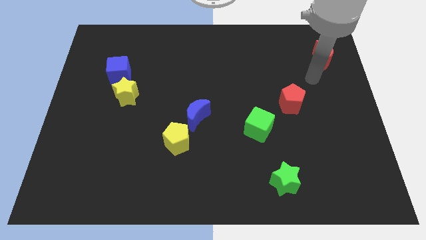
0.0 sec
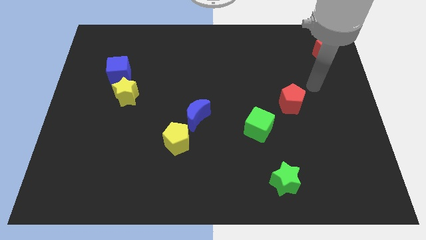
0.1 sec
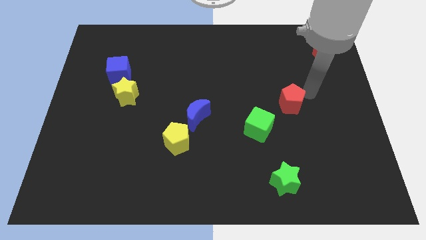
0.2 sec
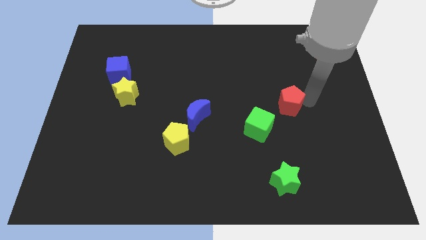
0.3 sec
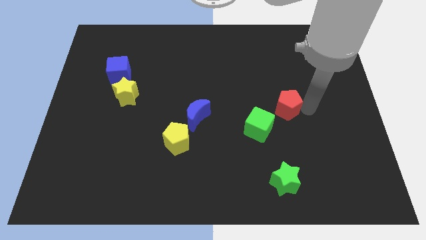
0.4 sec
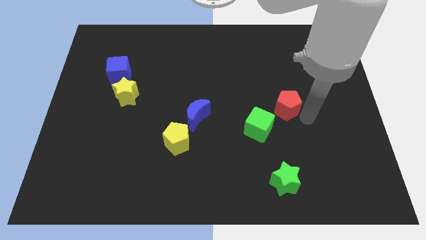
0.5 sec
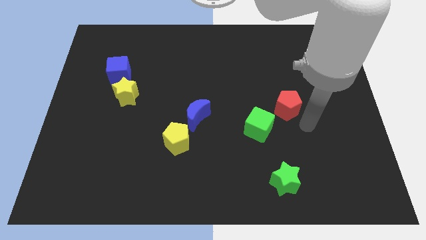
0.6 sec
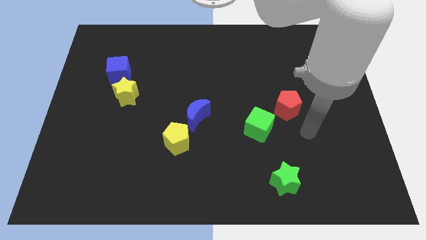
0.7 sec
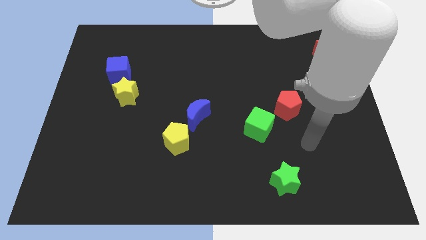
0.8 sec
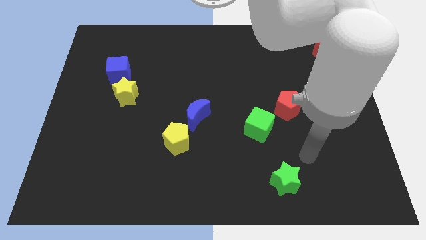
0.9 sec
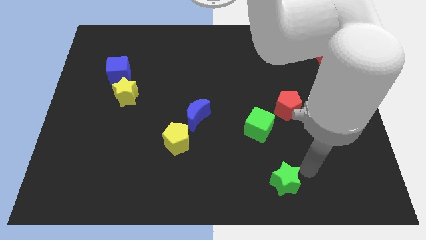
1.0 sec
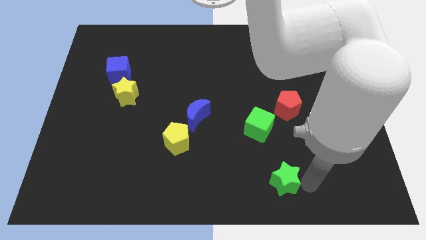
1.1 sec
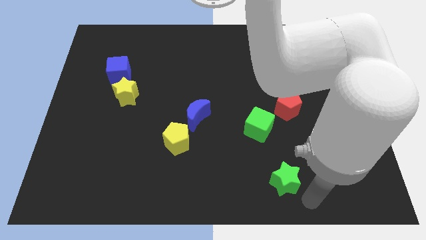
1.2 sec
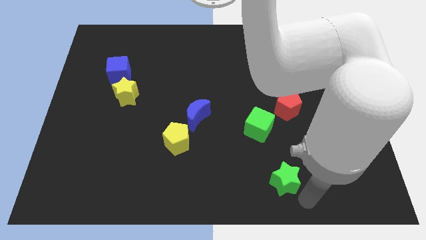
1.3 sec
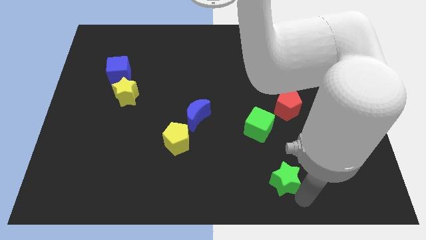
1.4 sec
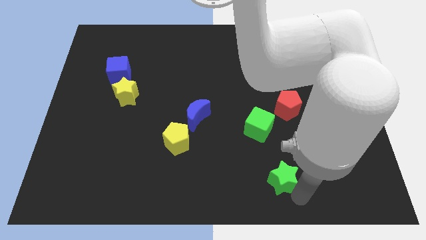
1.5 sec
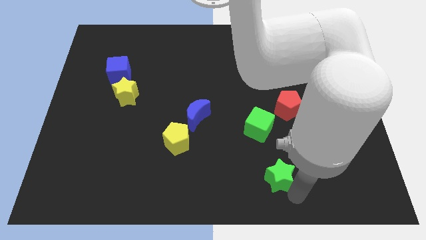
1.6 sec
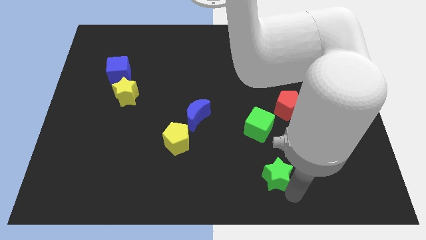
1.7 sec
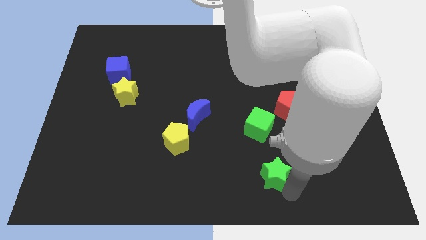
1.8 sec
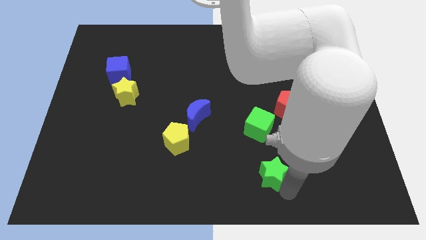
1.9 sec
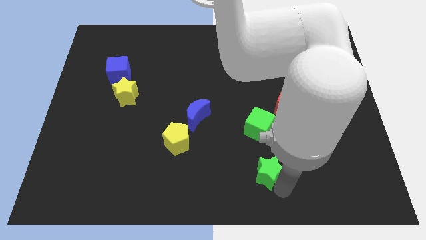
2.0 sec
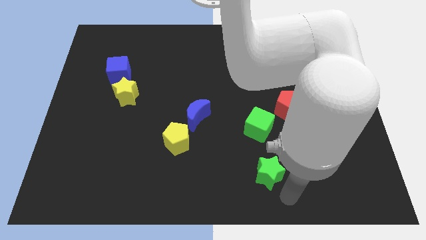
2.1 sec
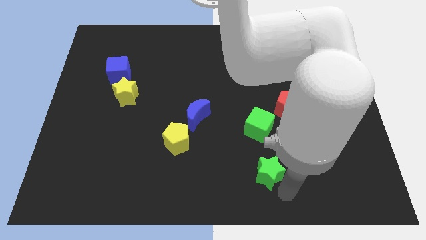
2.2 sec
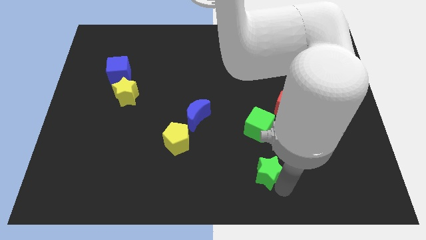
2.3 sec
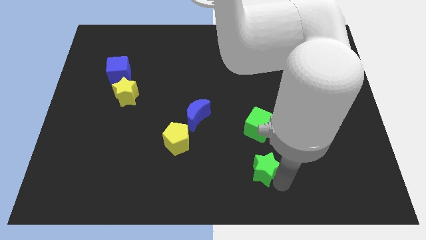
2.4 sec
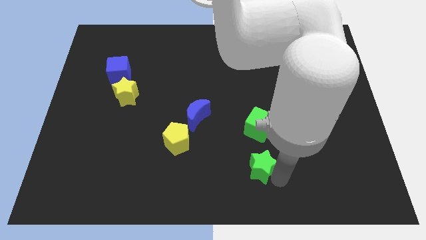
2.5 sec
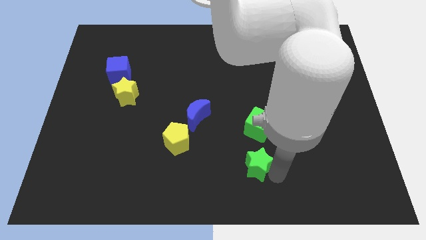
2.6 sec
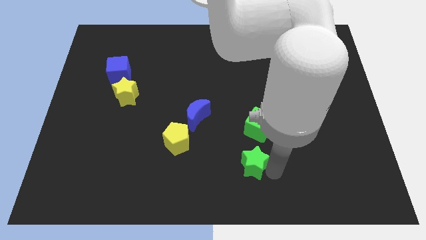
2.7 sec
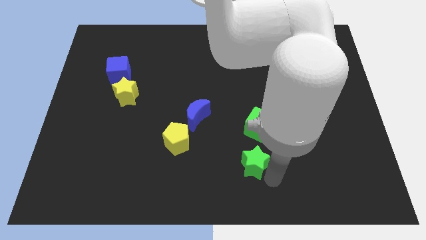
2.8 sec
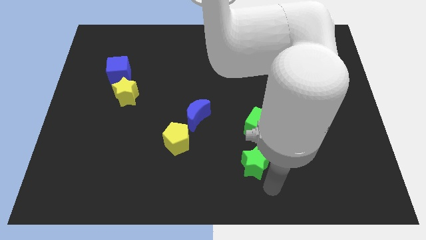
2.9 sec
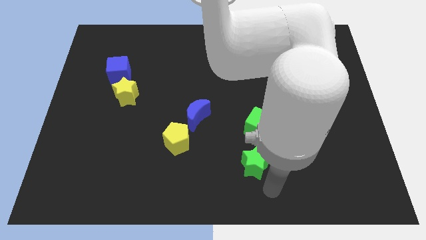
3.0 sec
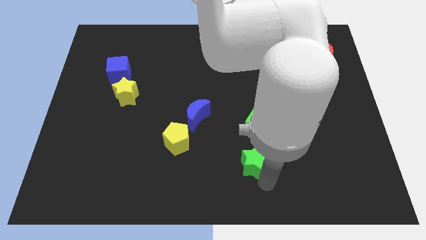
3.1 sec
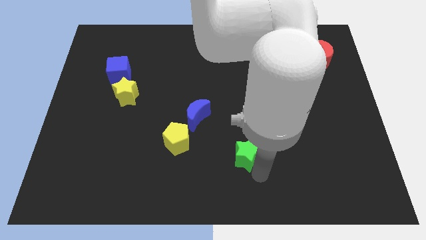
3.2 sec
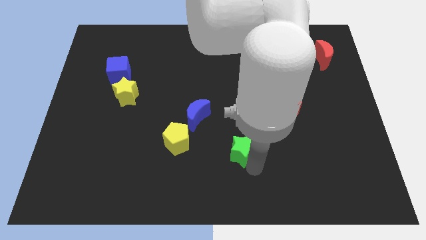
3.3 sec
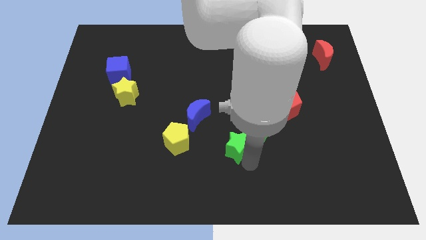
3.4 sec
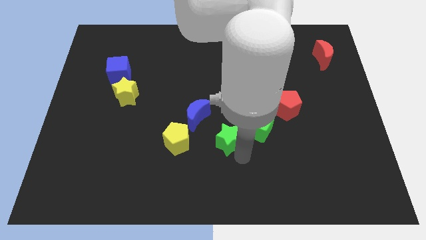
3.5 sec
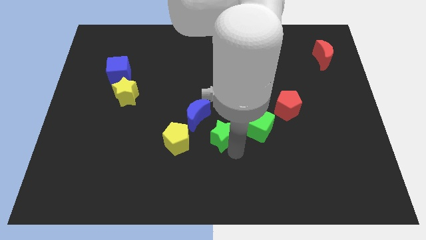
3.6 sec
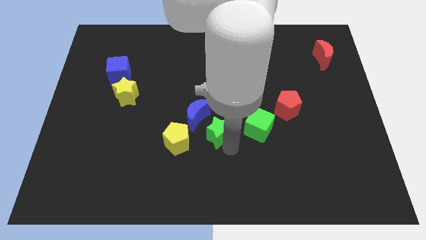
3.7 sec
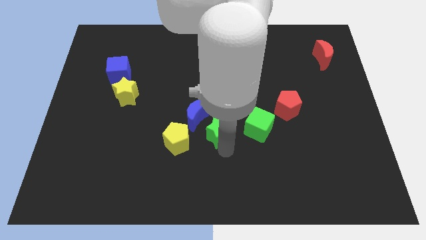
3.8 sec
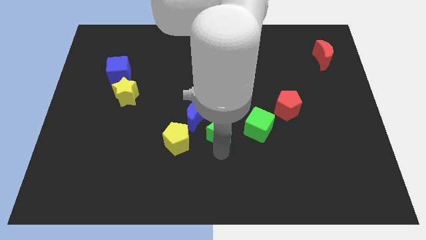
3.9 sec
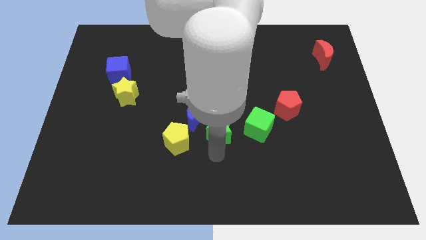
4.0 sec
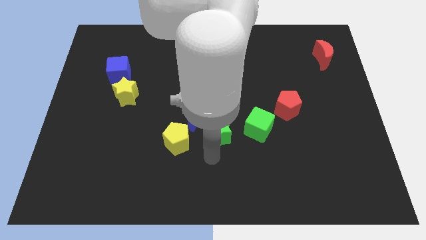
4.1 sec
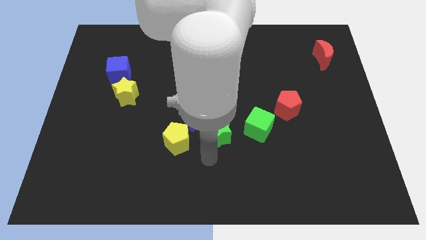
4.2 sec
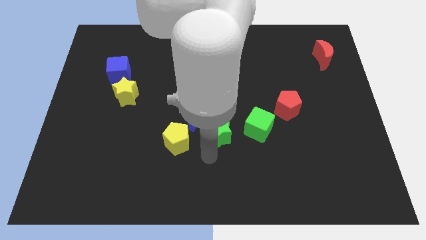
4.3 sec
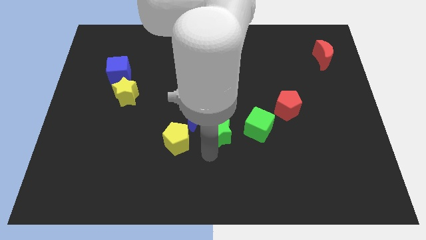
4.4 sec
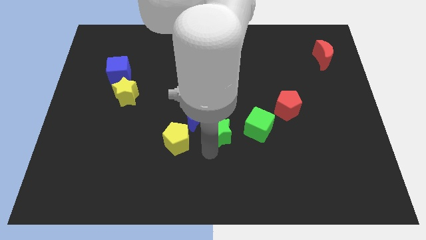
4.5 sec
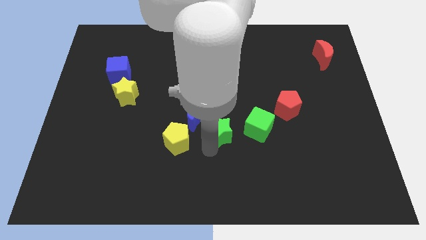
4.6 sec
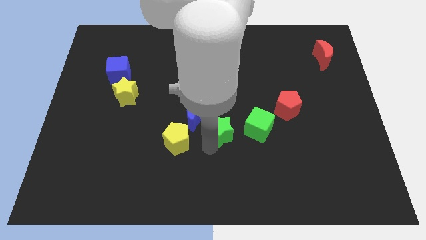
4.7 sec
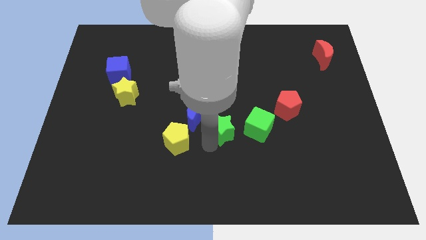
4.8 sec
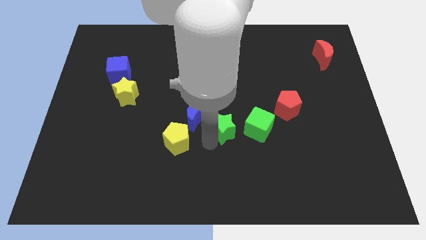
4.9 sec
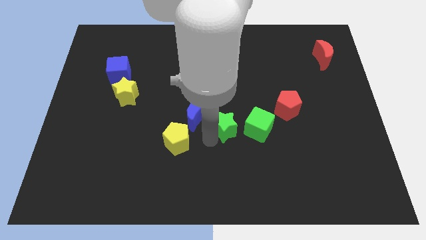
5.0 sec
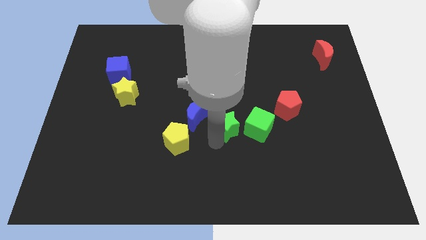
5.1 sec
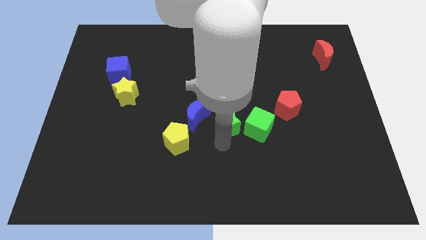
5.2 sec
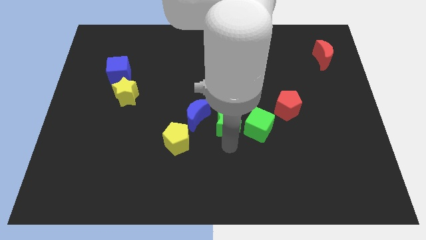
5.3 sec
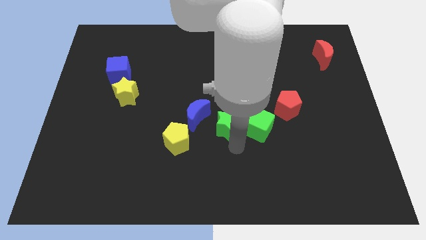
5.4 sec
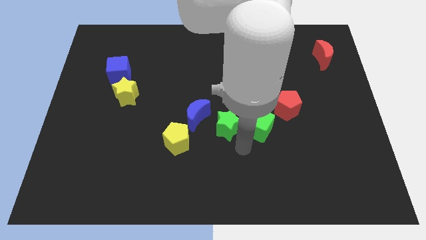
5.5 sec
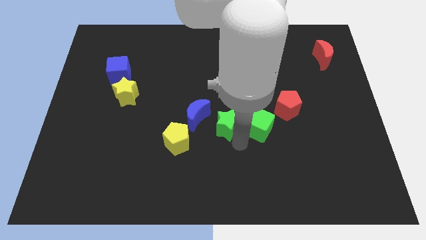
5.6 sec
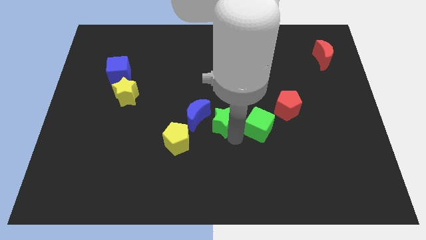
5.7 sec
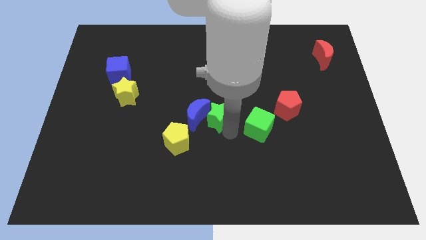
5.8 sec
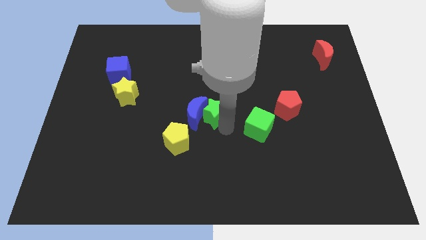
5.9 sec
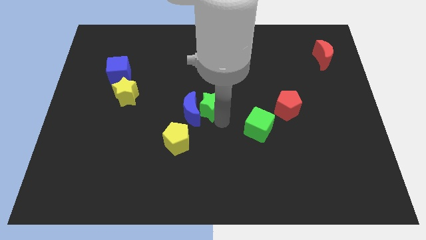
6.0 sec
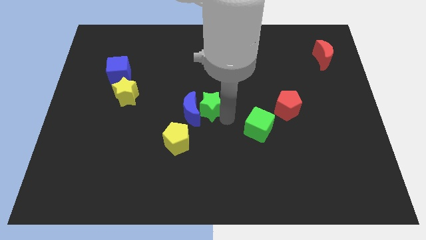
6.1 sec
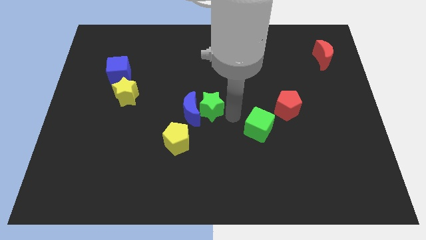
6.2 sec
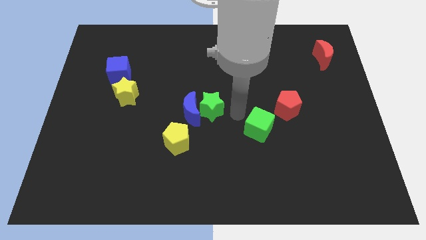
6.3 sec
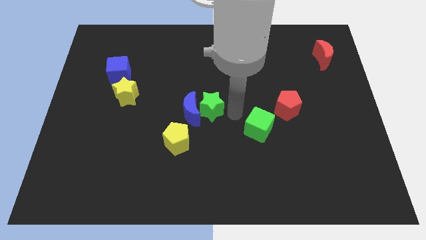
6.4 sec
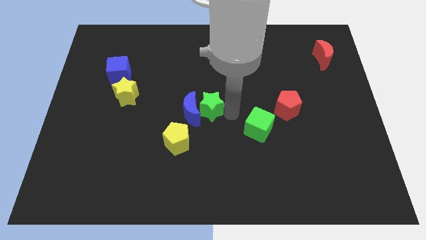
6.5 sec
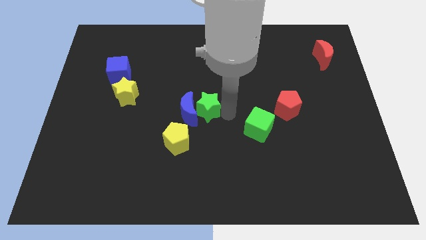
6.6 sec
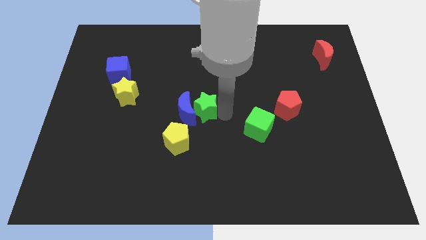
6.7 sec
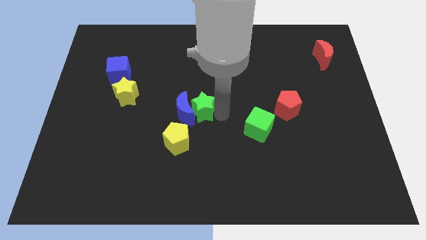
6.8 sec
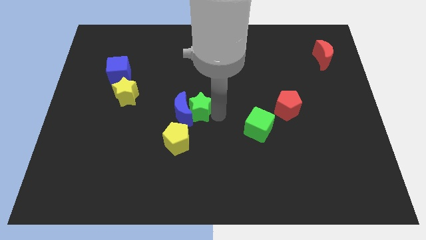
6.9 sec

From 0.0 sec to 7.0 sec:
slide the green star to the top of the yellow pentagon

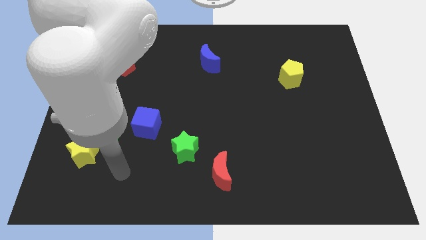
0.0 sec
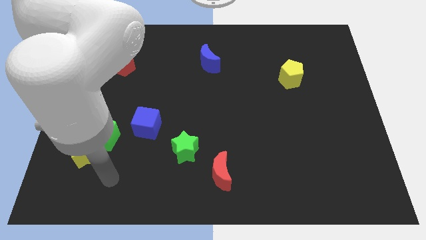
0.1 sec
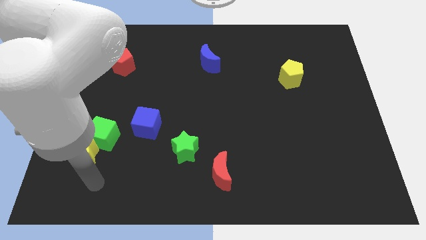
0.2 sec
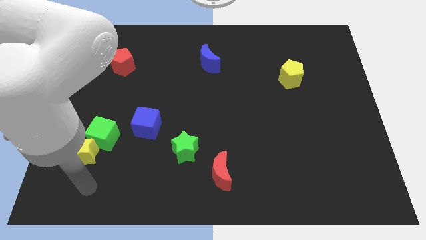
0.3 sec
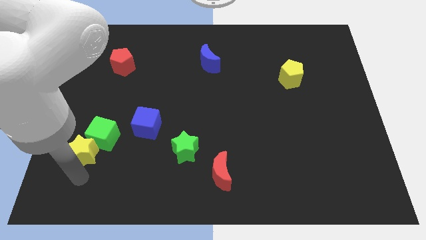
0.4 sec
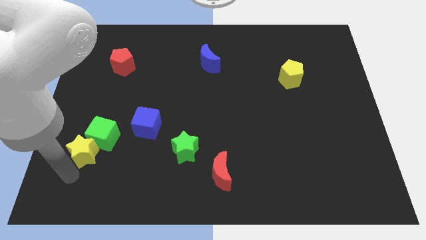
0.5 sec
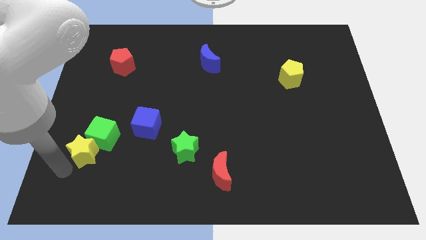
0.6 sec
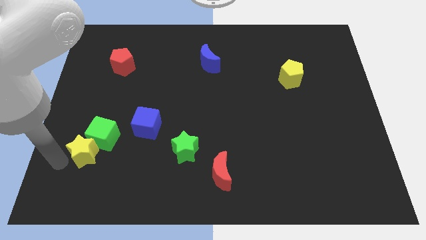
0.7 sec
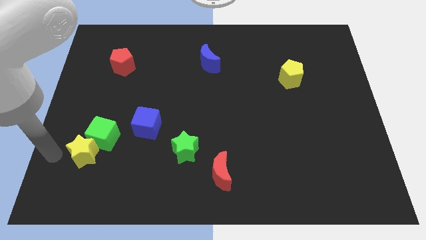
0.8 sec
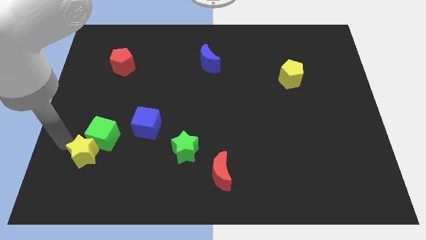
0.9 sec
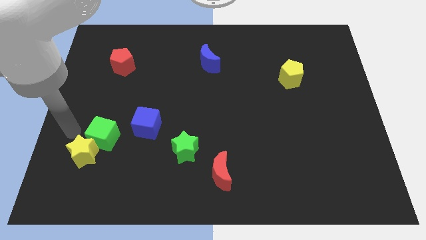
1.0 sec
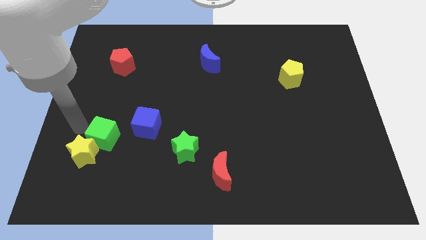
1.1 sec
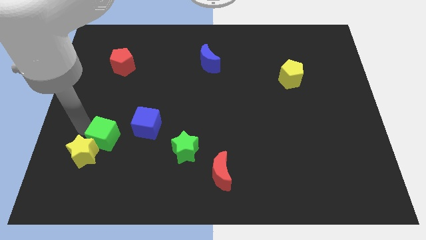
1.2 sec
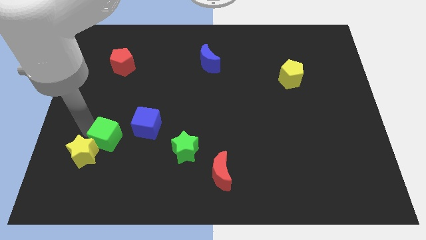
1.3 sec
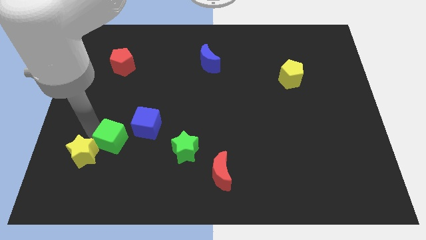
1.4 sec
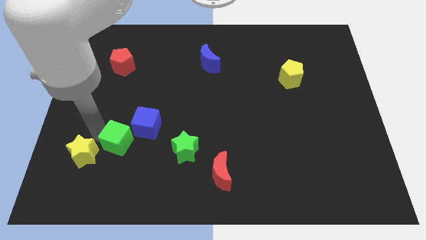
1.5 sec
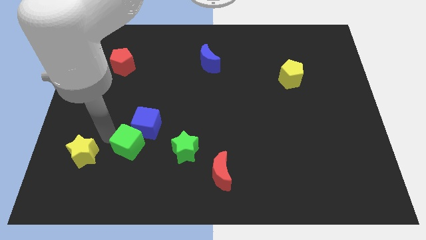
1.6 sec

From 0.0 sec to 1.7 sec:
move the green cube to the bottom of the blue cube
